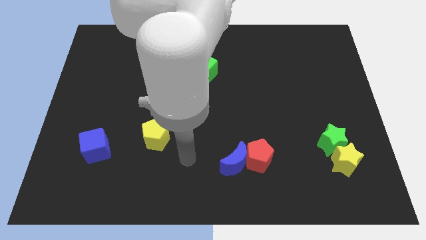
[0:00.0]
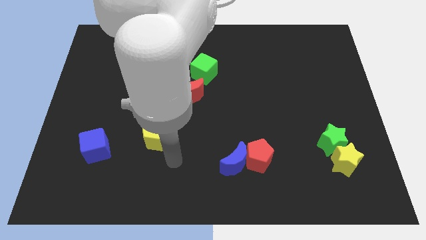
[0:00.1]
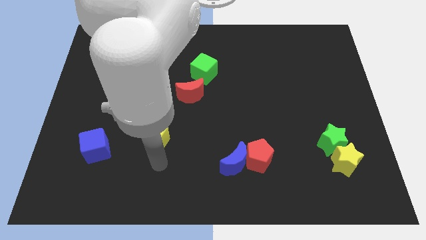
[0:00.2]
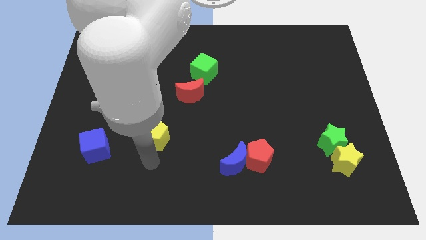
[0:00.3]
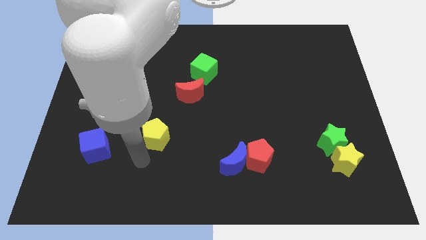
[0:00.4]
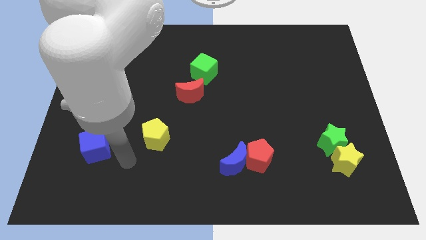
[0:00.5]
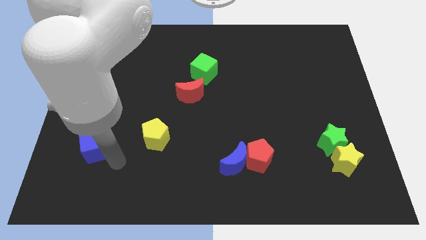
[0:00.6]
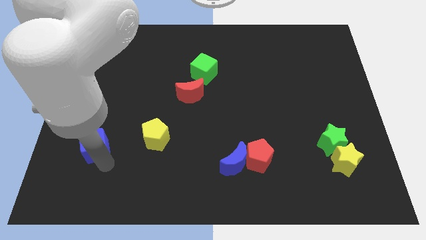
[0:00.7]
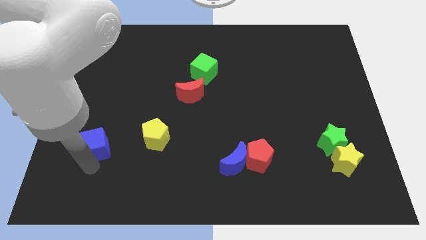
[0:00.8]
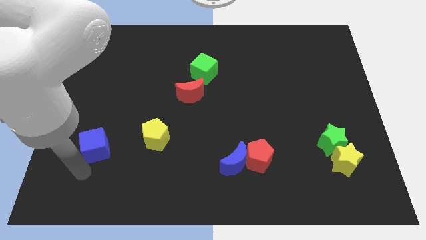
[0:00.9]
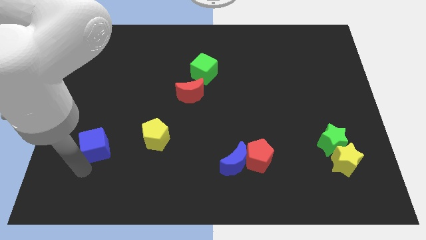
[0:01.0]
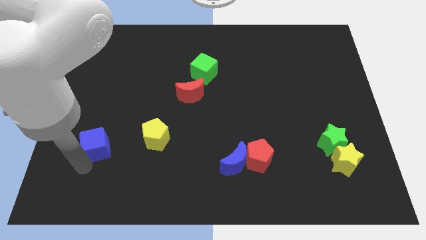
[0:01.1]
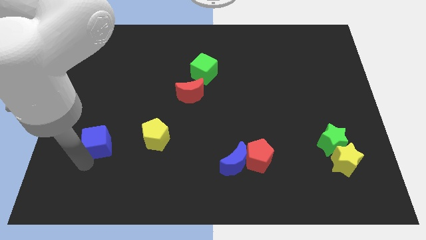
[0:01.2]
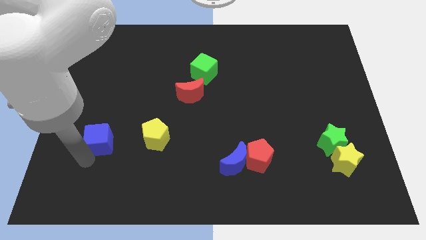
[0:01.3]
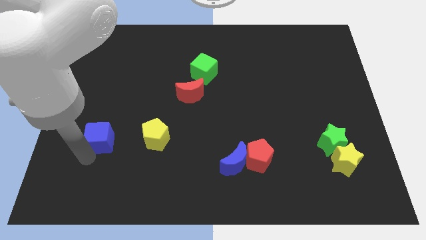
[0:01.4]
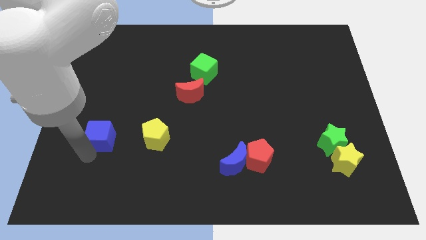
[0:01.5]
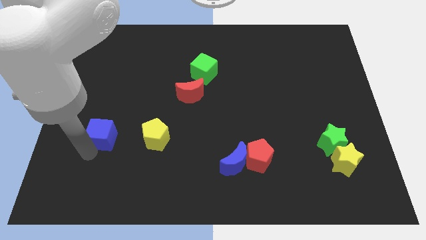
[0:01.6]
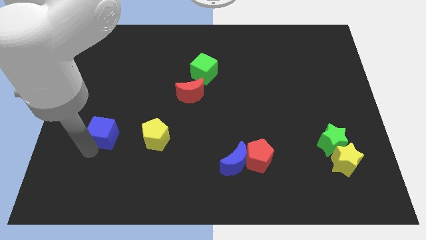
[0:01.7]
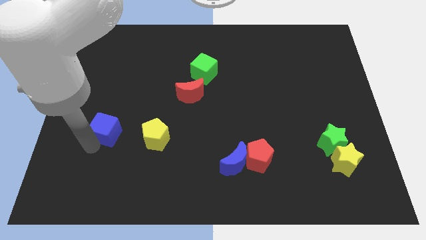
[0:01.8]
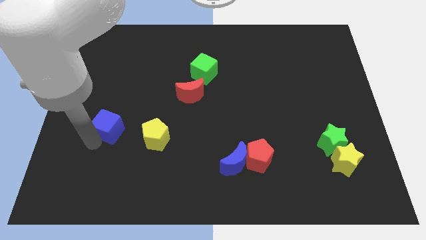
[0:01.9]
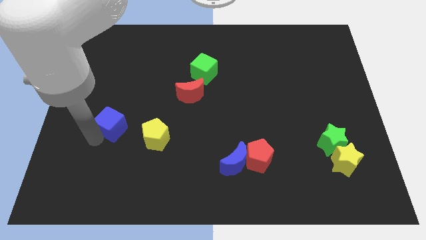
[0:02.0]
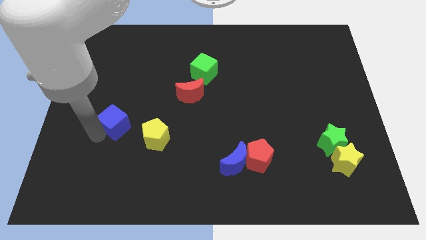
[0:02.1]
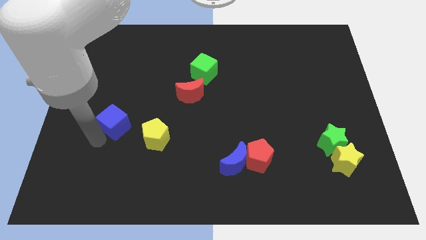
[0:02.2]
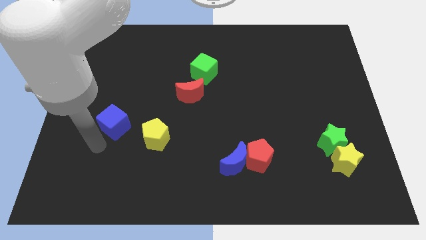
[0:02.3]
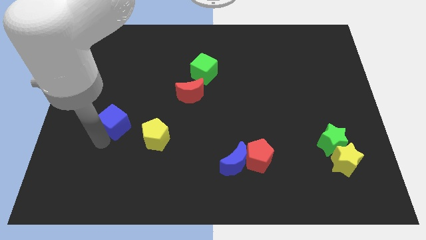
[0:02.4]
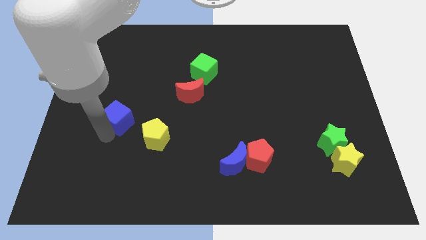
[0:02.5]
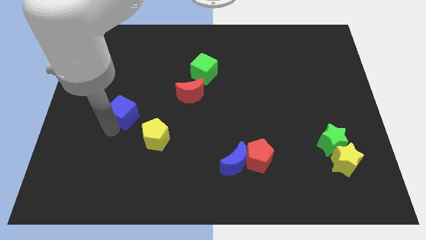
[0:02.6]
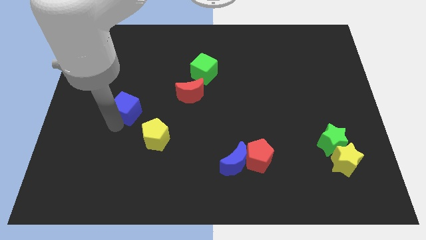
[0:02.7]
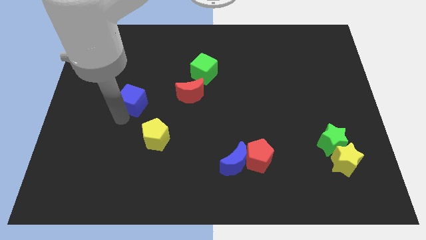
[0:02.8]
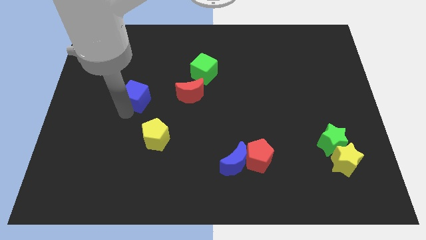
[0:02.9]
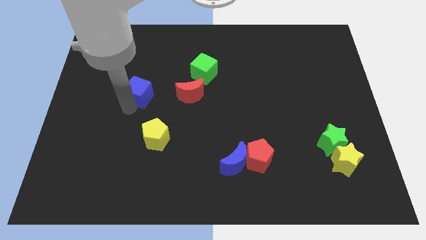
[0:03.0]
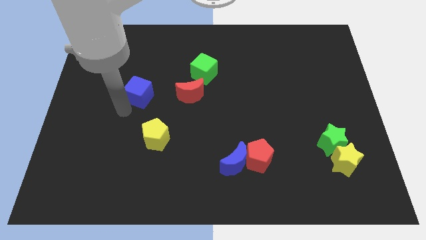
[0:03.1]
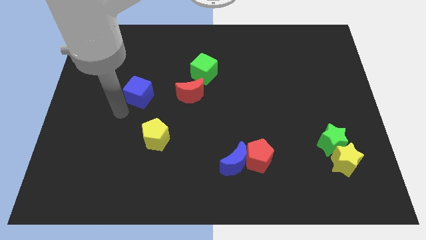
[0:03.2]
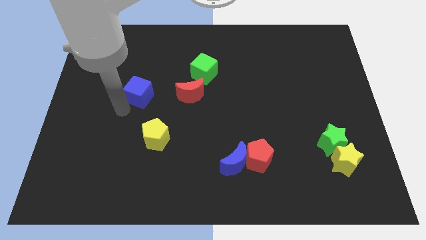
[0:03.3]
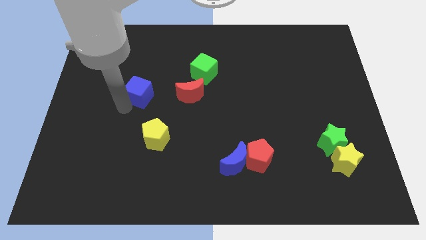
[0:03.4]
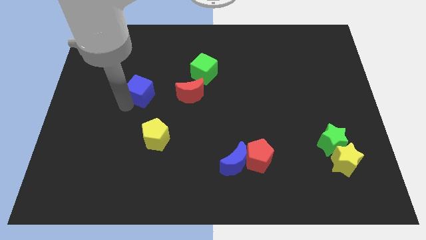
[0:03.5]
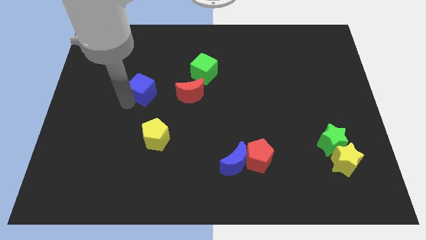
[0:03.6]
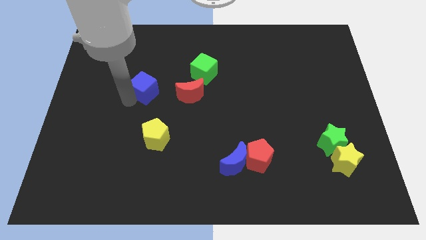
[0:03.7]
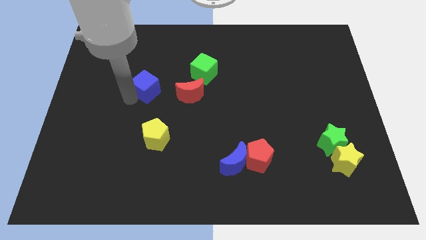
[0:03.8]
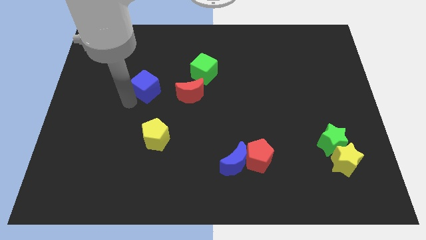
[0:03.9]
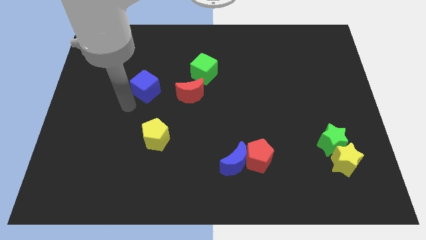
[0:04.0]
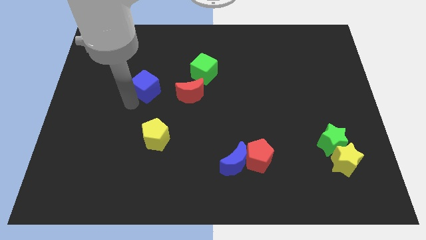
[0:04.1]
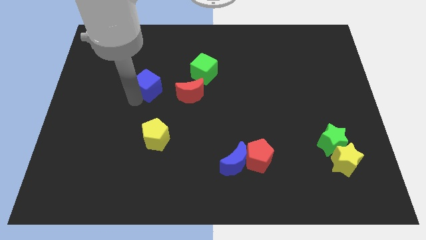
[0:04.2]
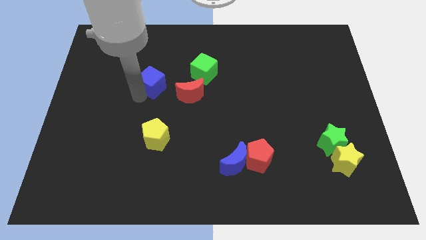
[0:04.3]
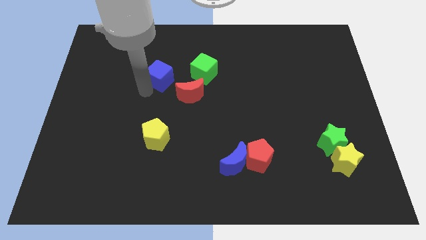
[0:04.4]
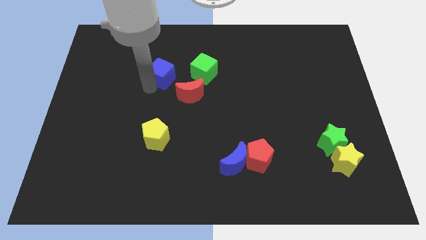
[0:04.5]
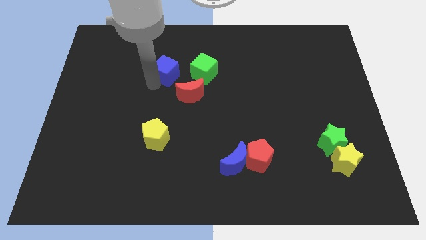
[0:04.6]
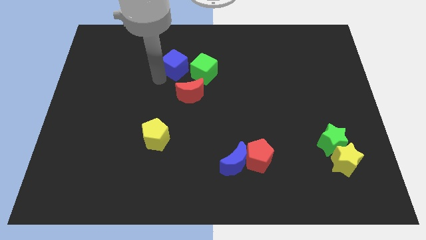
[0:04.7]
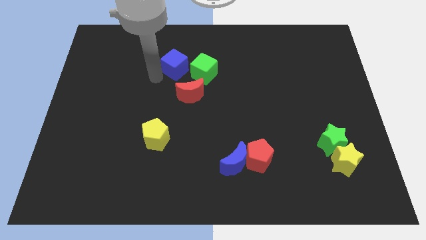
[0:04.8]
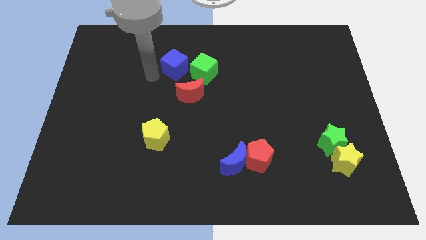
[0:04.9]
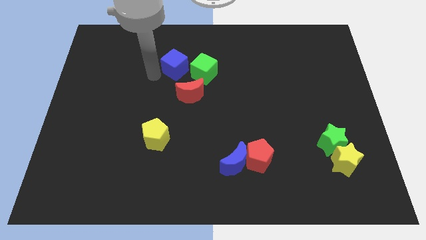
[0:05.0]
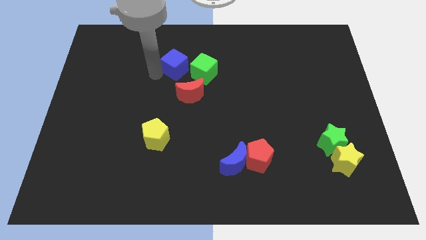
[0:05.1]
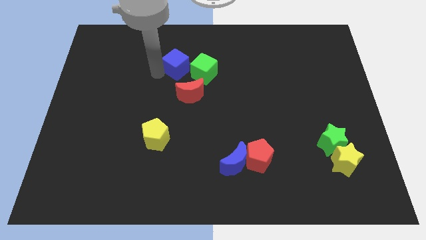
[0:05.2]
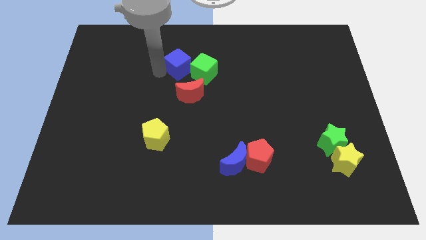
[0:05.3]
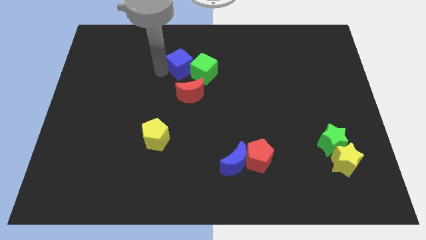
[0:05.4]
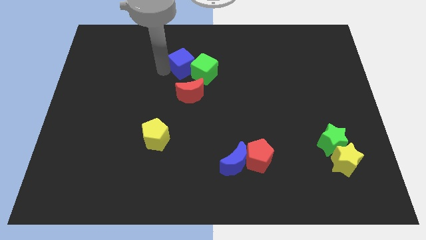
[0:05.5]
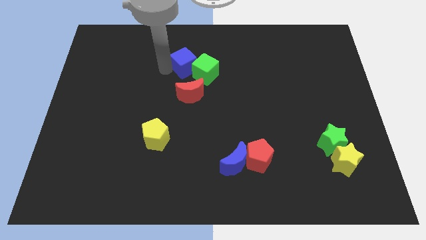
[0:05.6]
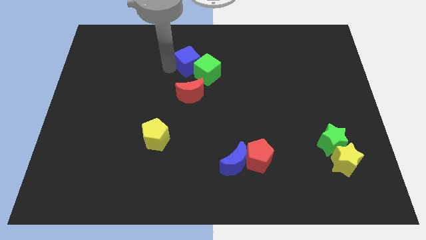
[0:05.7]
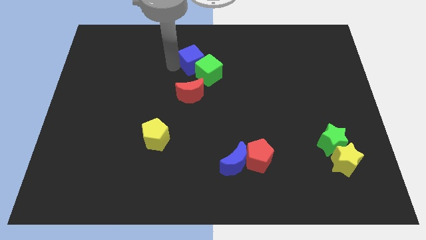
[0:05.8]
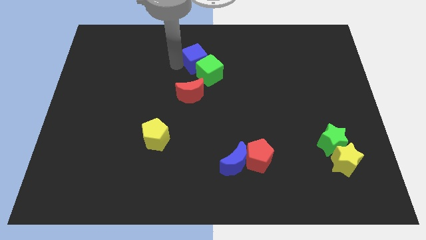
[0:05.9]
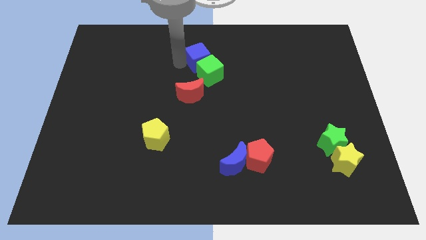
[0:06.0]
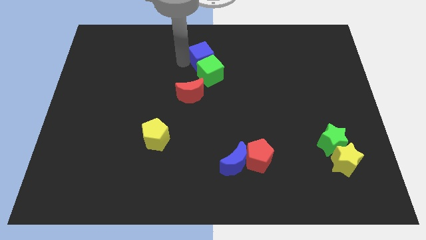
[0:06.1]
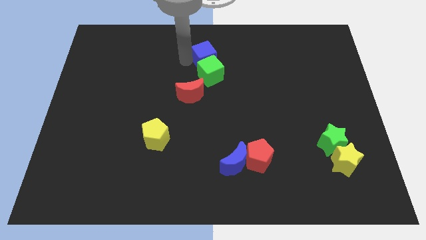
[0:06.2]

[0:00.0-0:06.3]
move the blue cube to the top right of the green cube

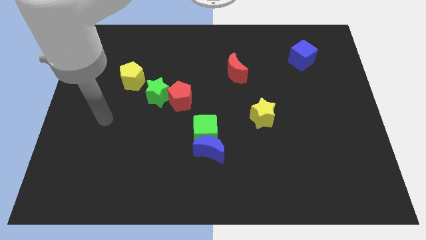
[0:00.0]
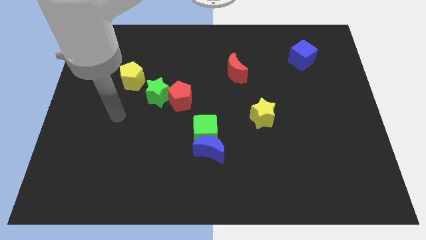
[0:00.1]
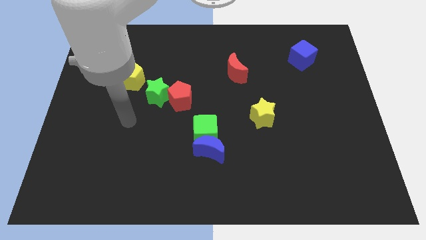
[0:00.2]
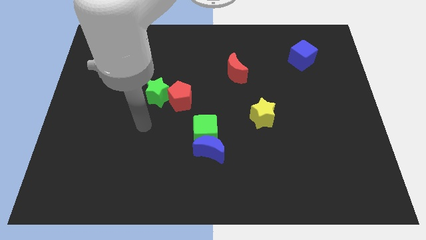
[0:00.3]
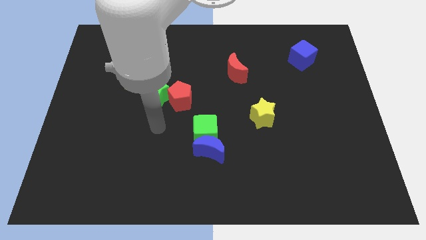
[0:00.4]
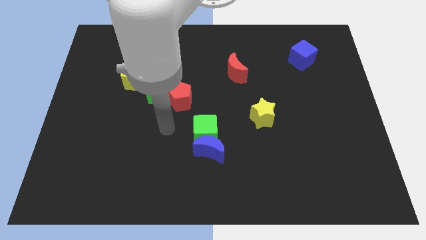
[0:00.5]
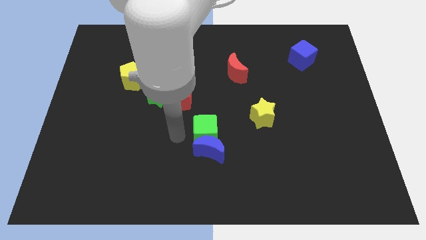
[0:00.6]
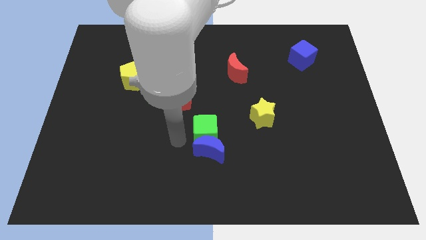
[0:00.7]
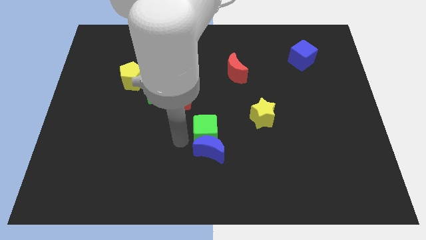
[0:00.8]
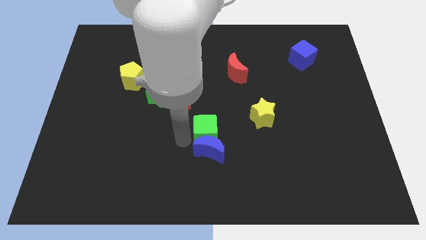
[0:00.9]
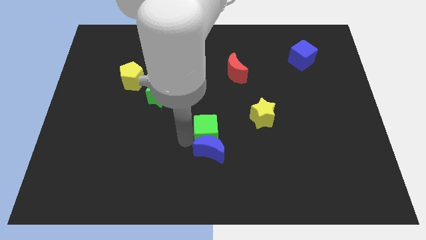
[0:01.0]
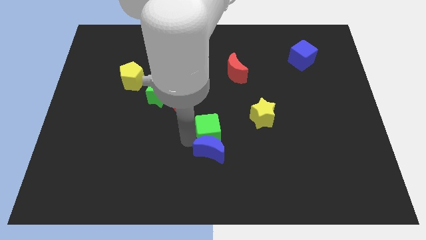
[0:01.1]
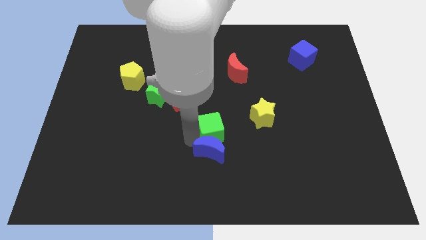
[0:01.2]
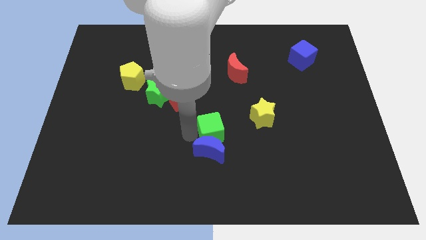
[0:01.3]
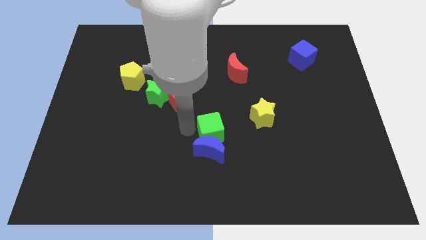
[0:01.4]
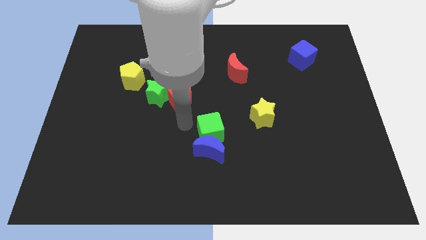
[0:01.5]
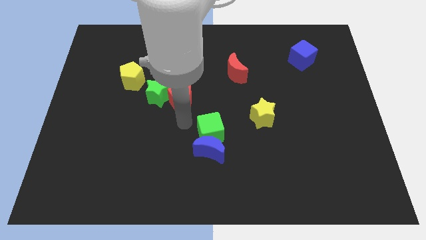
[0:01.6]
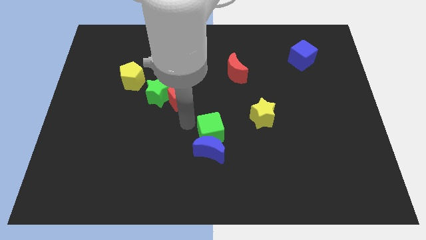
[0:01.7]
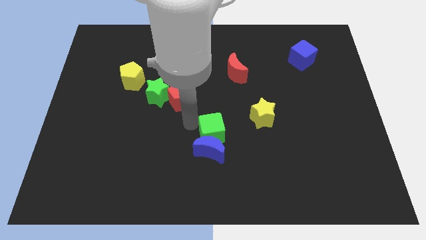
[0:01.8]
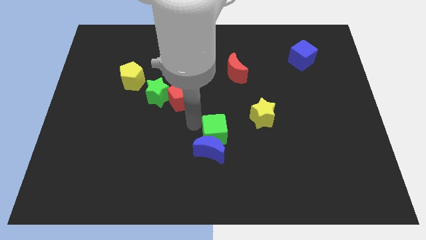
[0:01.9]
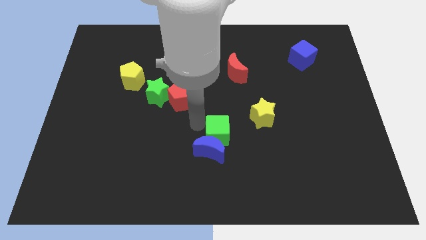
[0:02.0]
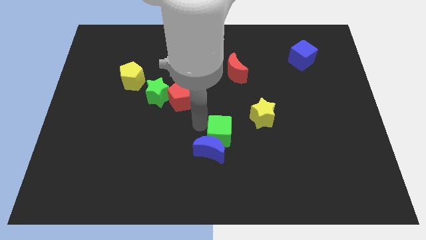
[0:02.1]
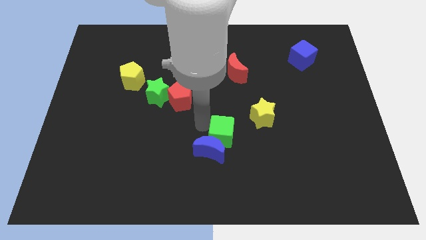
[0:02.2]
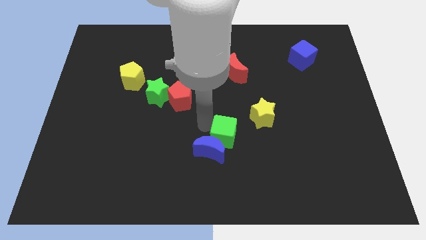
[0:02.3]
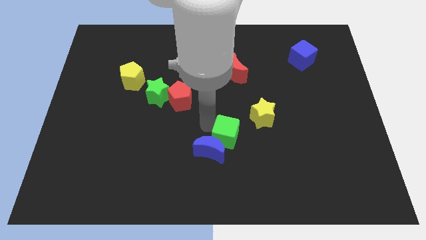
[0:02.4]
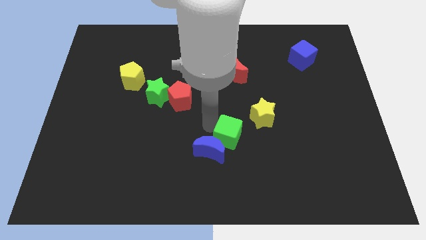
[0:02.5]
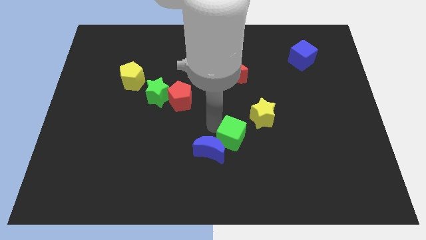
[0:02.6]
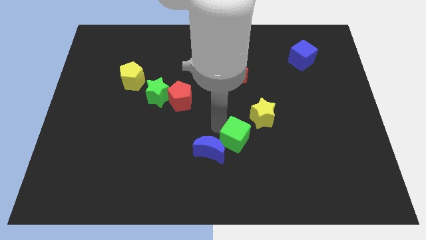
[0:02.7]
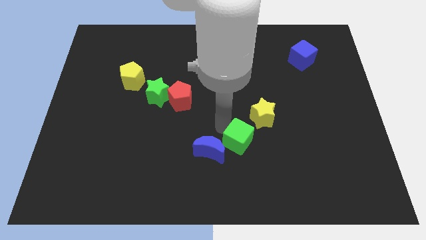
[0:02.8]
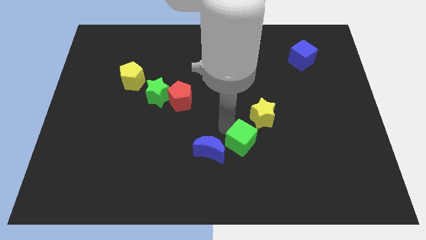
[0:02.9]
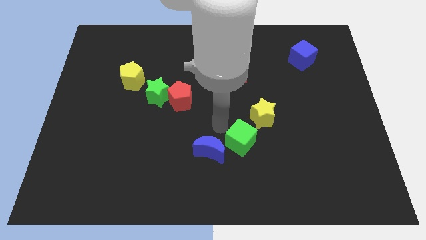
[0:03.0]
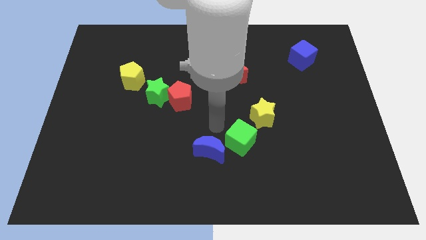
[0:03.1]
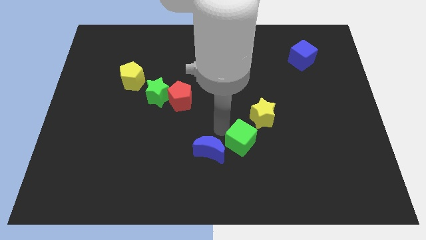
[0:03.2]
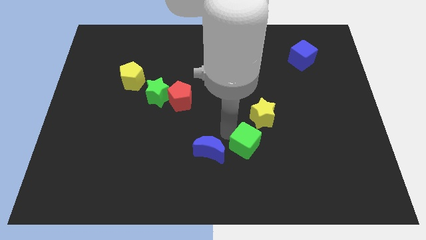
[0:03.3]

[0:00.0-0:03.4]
put the green cube below the yellow star
